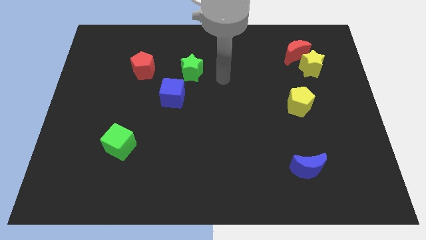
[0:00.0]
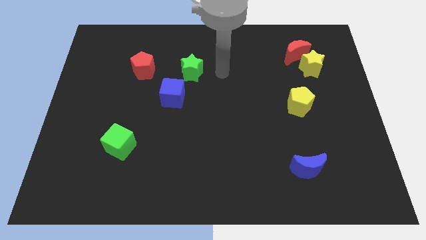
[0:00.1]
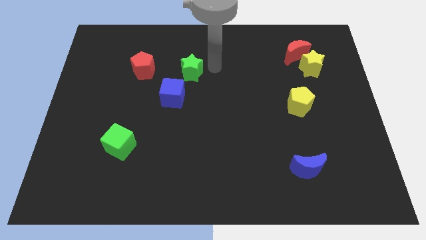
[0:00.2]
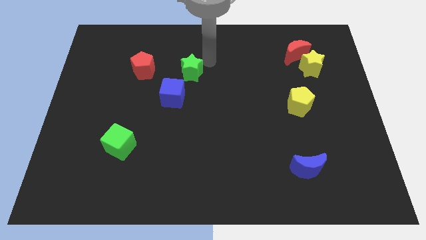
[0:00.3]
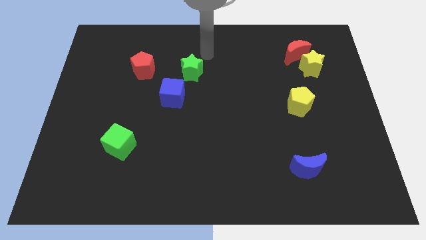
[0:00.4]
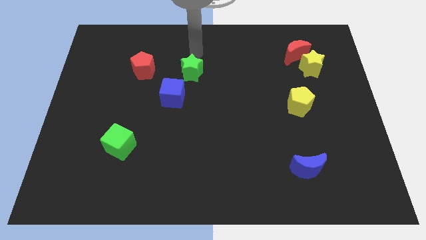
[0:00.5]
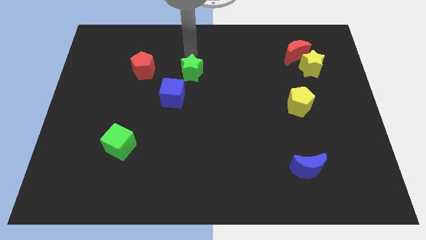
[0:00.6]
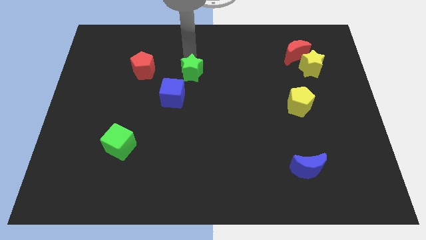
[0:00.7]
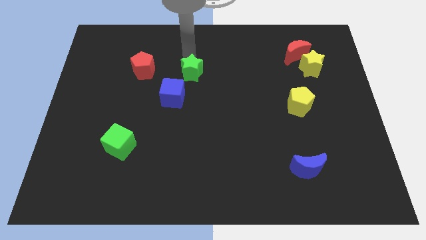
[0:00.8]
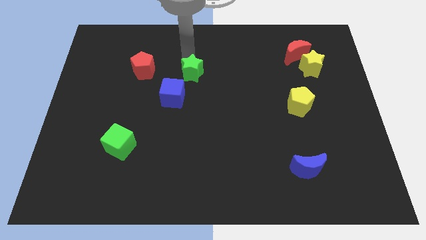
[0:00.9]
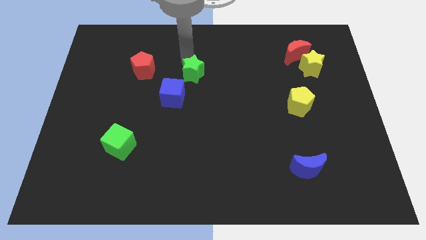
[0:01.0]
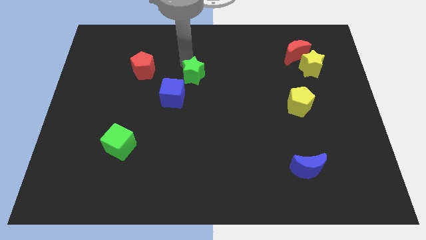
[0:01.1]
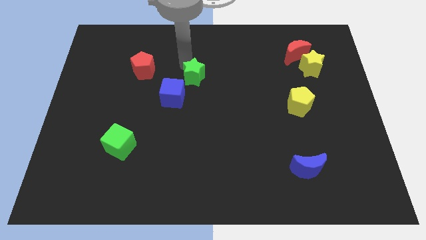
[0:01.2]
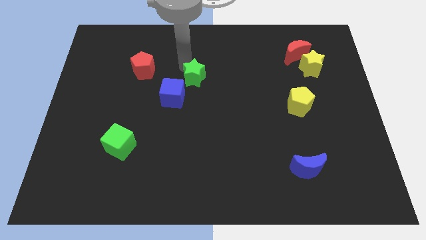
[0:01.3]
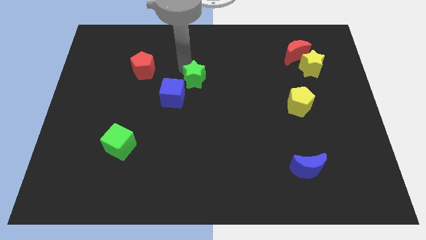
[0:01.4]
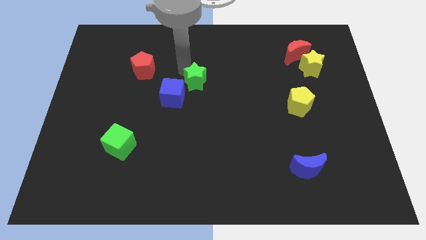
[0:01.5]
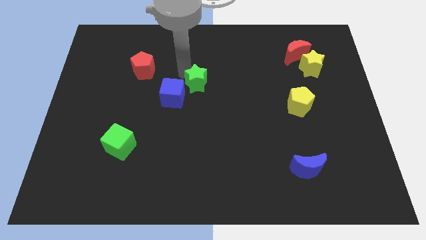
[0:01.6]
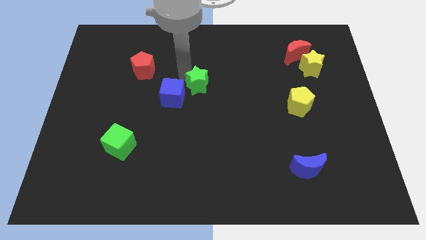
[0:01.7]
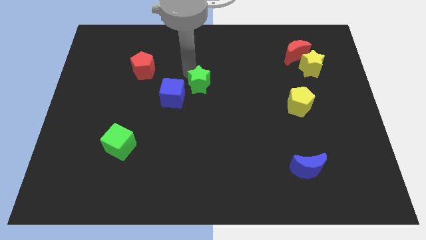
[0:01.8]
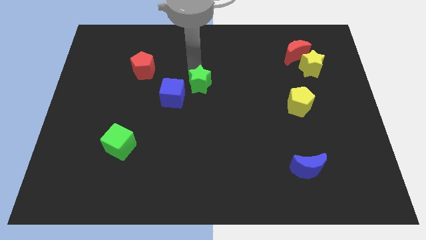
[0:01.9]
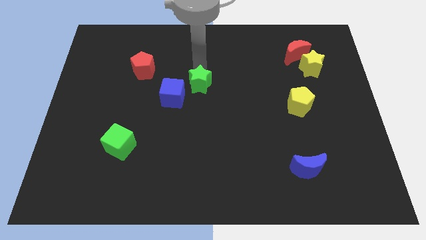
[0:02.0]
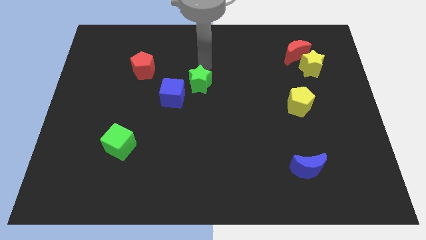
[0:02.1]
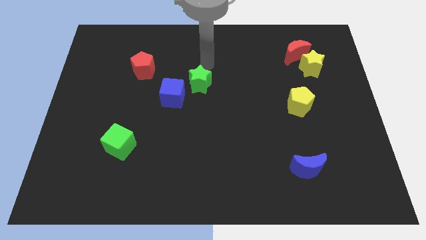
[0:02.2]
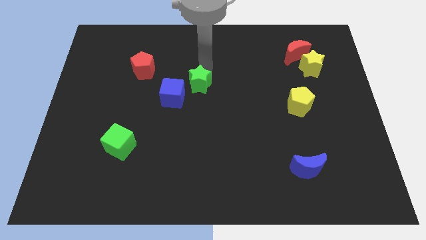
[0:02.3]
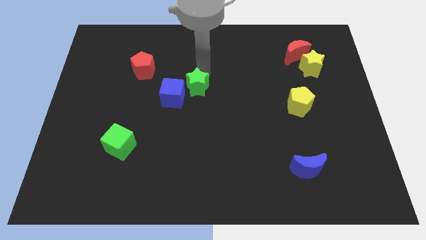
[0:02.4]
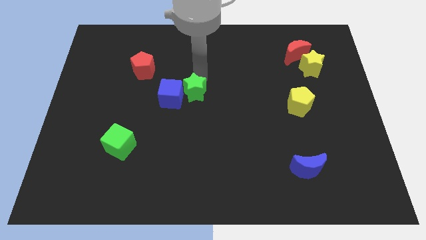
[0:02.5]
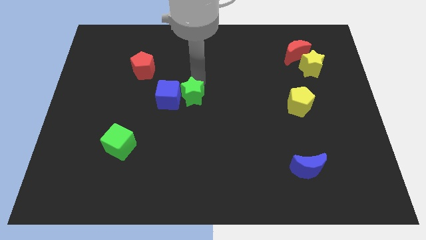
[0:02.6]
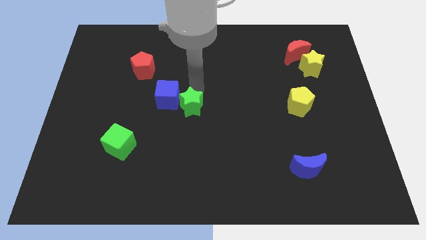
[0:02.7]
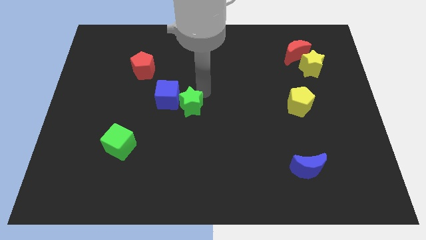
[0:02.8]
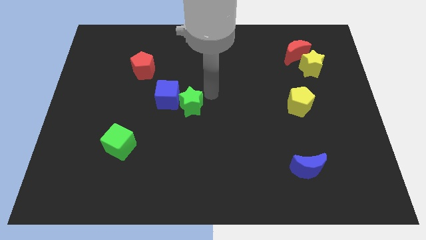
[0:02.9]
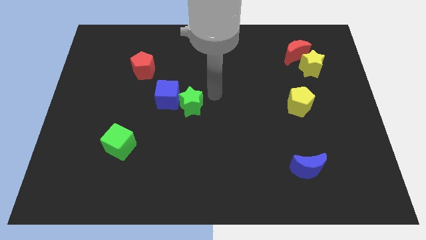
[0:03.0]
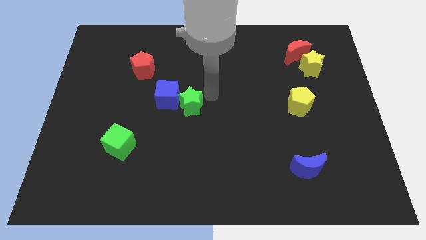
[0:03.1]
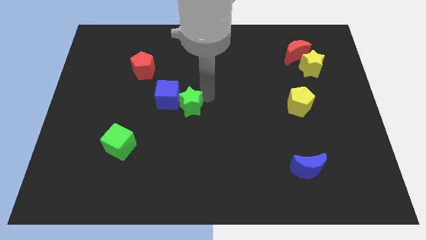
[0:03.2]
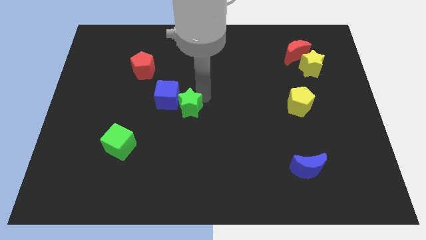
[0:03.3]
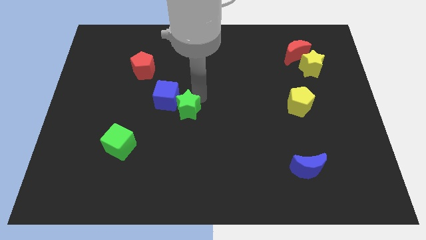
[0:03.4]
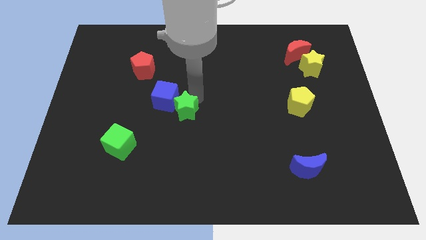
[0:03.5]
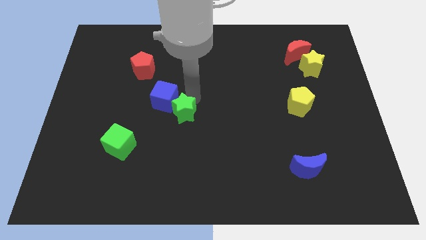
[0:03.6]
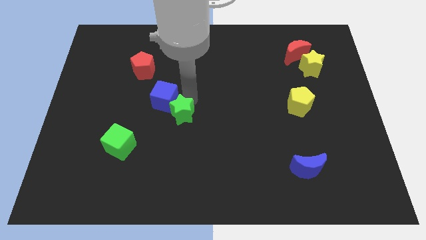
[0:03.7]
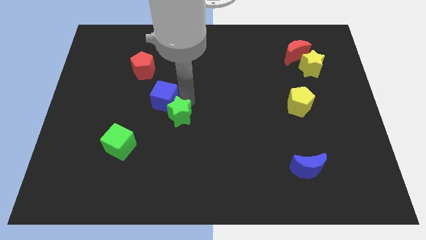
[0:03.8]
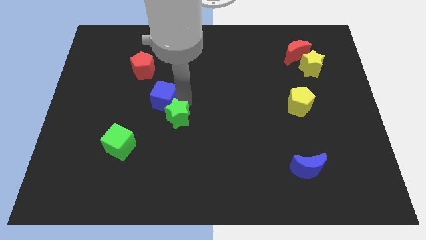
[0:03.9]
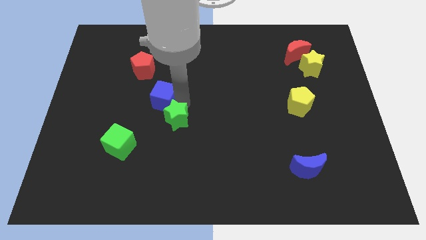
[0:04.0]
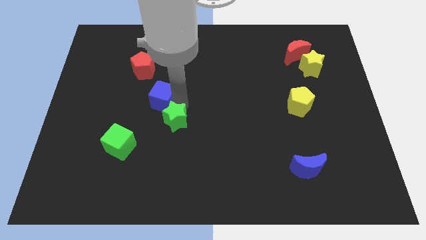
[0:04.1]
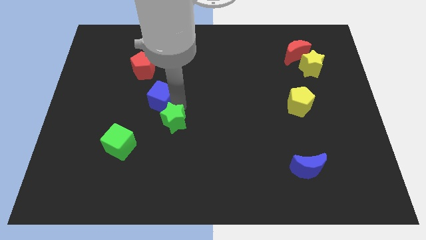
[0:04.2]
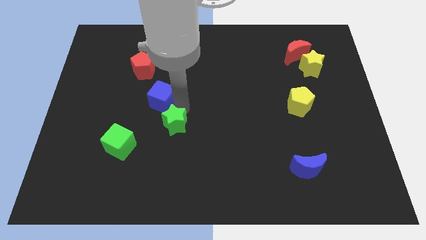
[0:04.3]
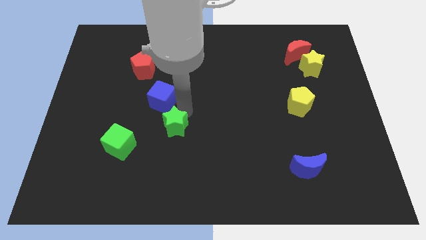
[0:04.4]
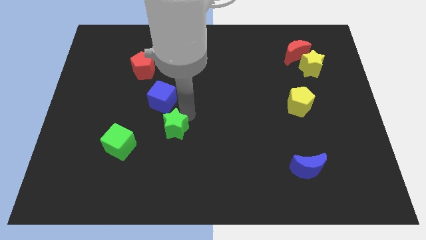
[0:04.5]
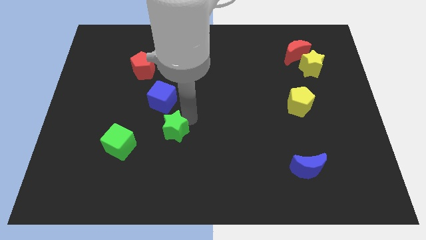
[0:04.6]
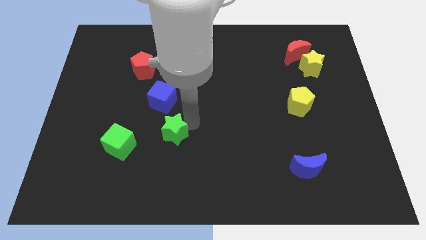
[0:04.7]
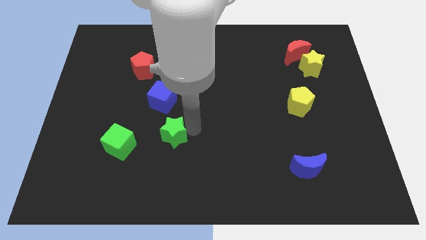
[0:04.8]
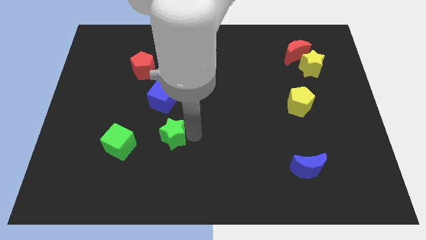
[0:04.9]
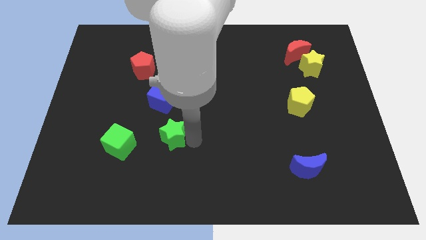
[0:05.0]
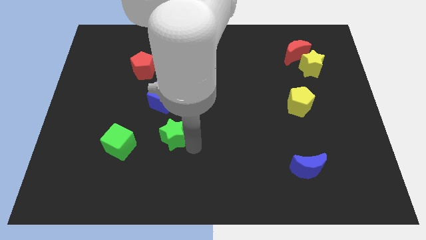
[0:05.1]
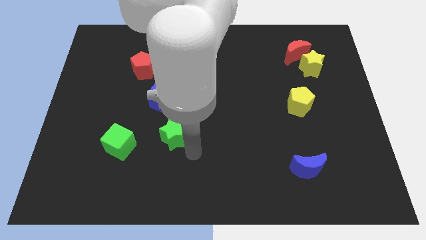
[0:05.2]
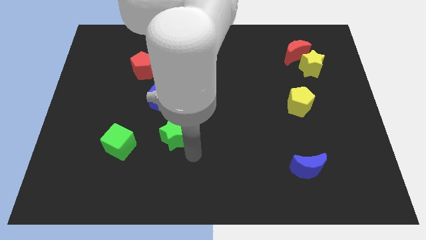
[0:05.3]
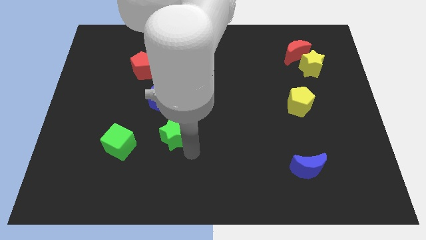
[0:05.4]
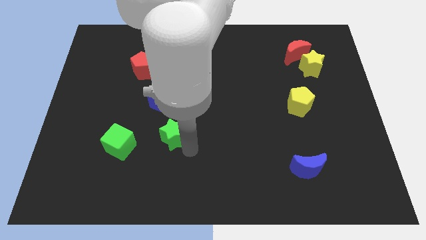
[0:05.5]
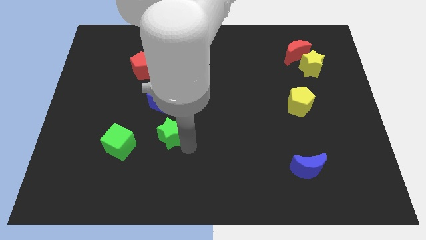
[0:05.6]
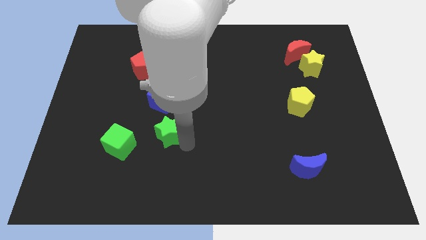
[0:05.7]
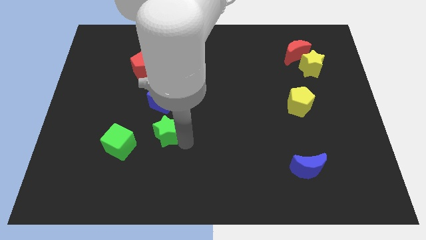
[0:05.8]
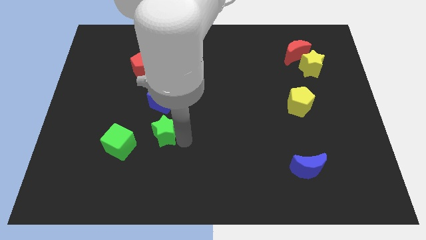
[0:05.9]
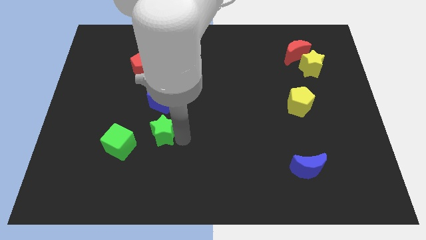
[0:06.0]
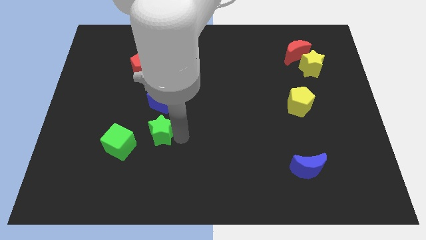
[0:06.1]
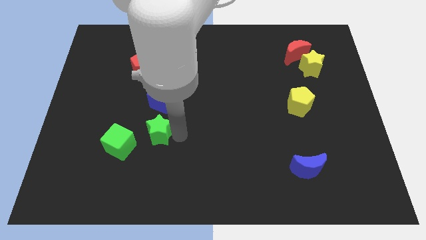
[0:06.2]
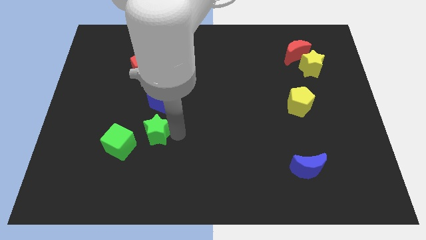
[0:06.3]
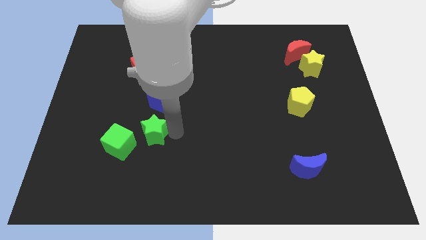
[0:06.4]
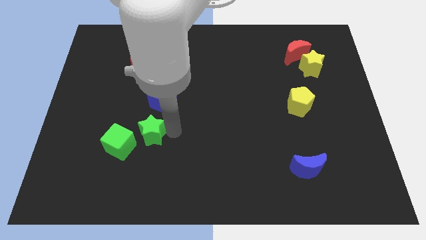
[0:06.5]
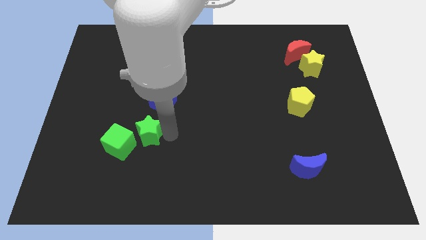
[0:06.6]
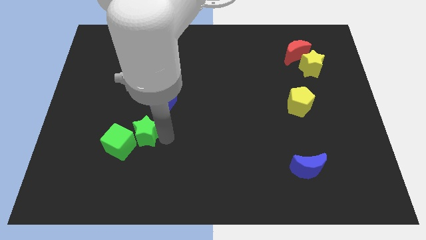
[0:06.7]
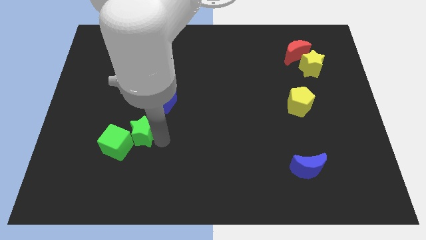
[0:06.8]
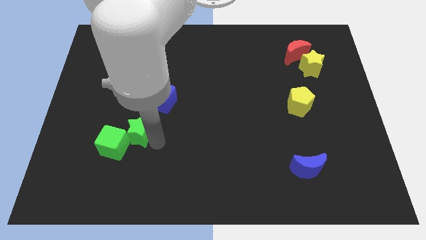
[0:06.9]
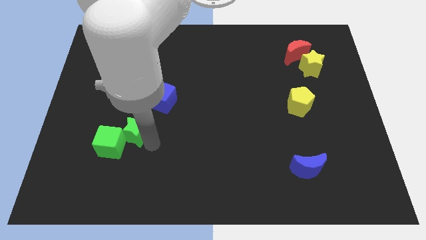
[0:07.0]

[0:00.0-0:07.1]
move the green star downwards and left

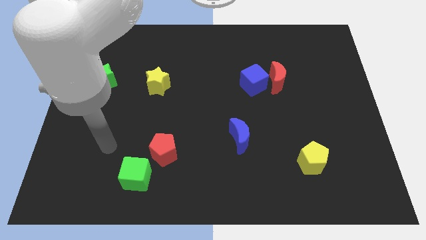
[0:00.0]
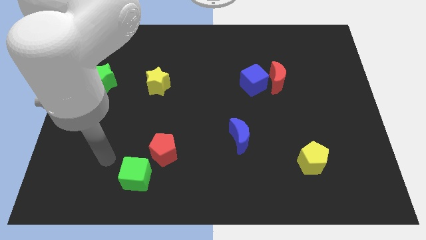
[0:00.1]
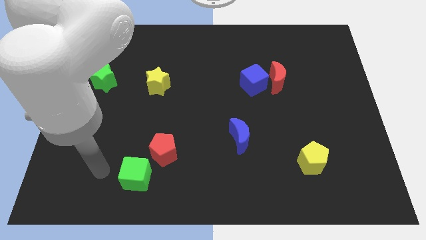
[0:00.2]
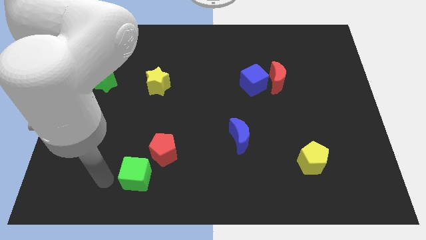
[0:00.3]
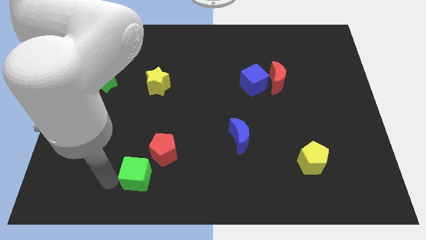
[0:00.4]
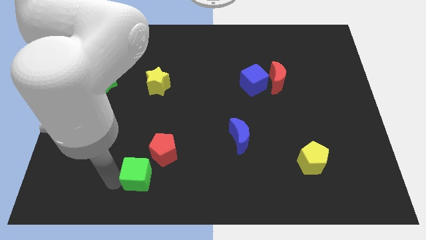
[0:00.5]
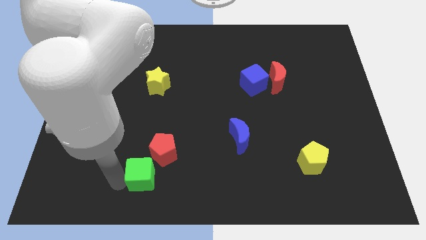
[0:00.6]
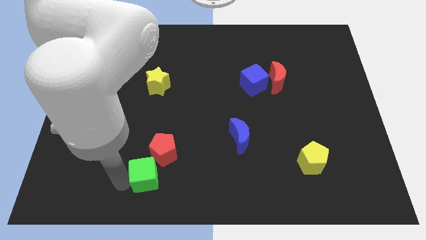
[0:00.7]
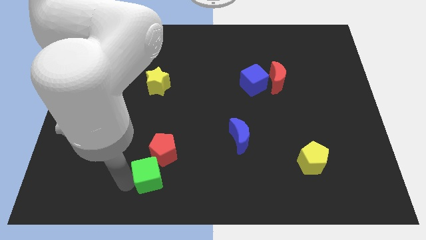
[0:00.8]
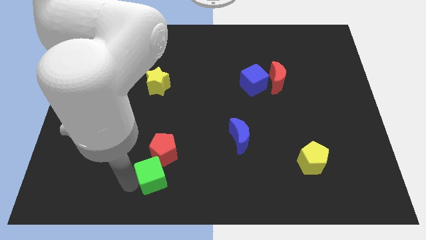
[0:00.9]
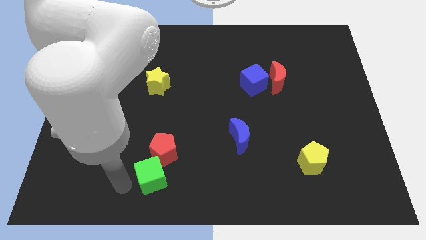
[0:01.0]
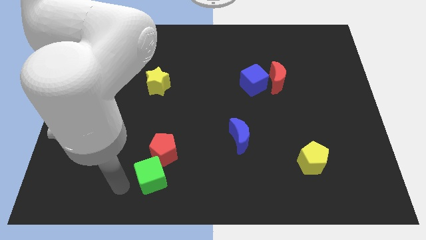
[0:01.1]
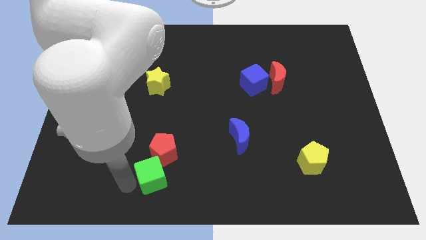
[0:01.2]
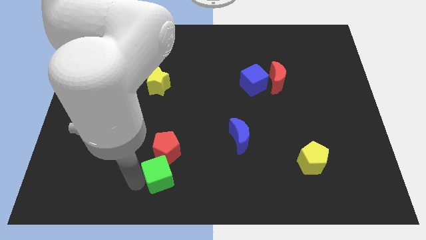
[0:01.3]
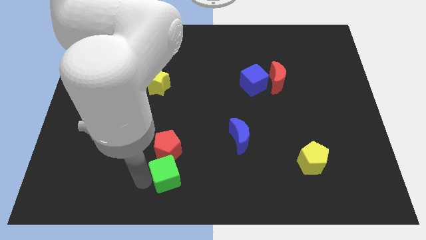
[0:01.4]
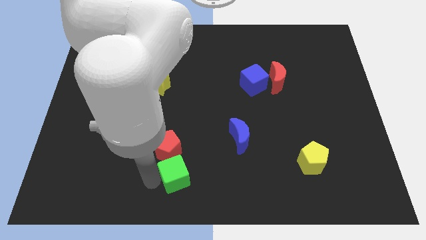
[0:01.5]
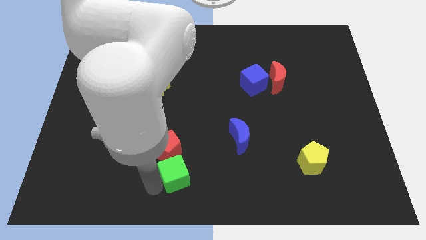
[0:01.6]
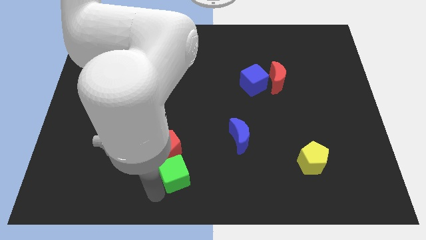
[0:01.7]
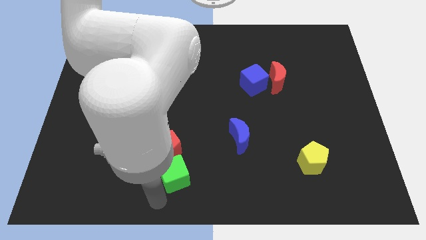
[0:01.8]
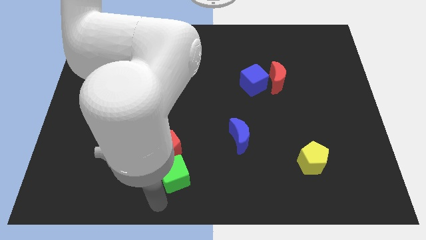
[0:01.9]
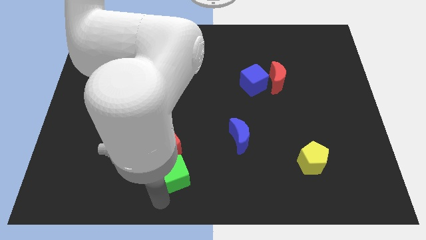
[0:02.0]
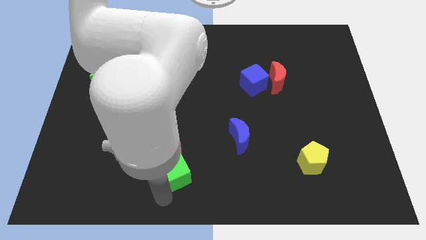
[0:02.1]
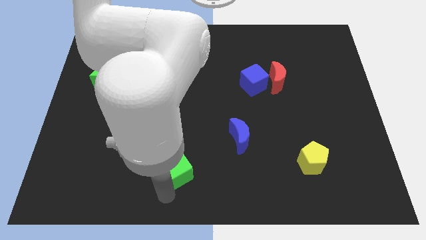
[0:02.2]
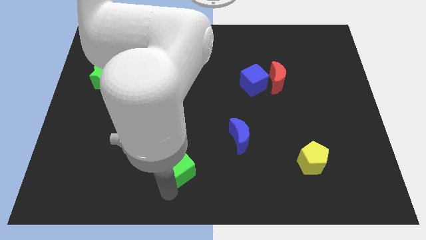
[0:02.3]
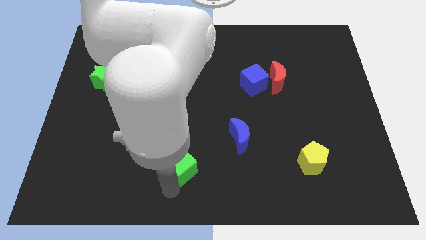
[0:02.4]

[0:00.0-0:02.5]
slide the green cube upwards and then to the right a bit
